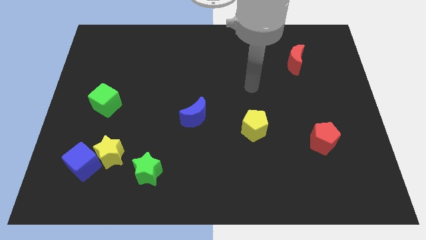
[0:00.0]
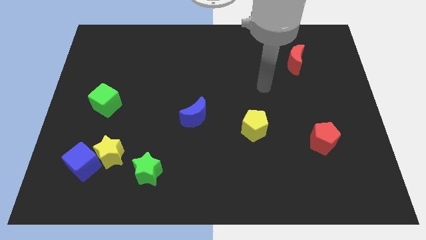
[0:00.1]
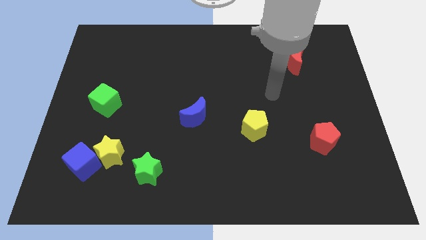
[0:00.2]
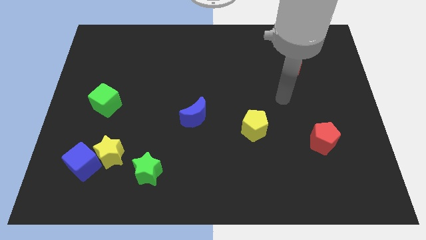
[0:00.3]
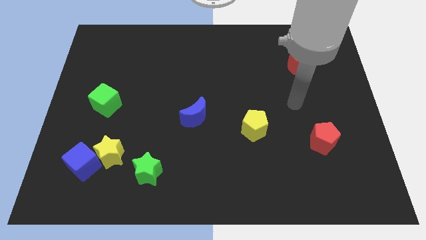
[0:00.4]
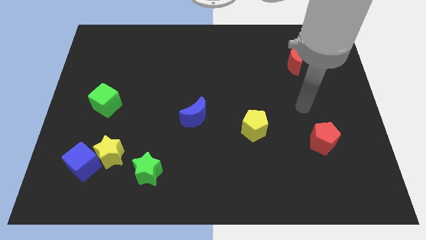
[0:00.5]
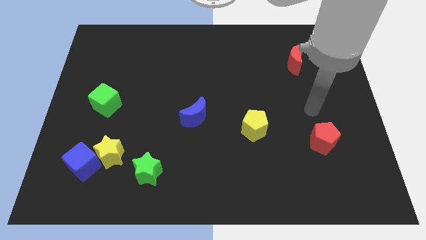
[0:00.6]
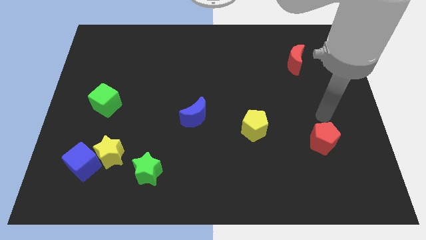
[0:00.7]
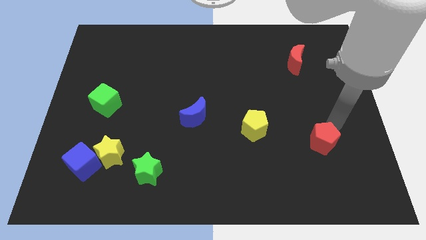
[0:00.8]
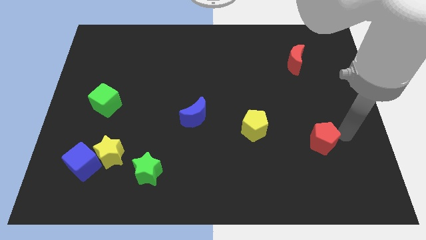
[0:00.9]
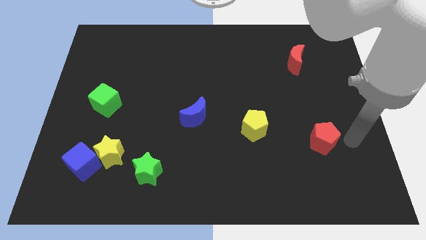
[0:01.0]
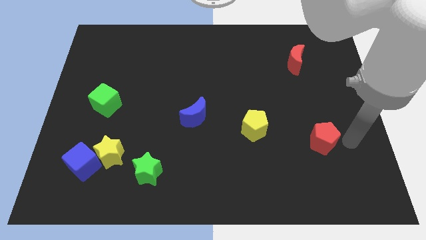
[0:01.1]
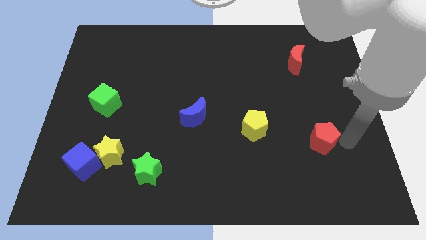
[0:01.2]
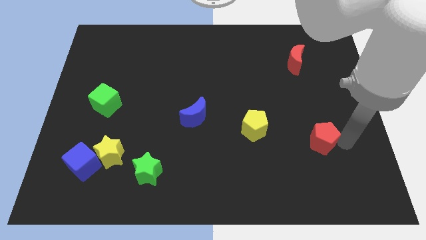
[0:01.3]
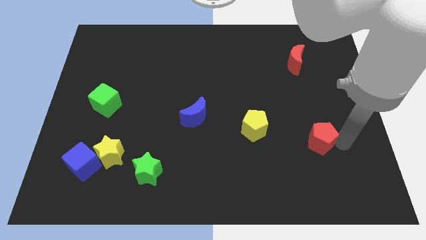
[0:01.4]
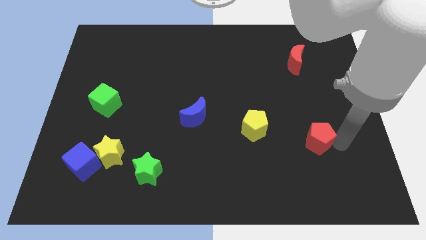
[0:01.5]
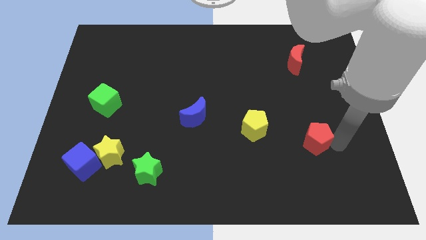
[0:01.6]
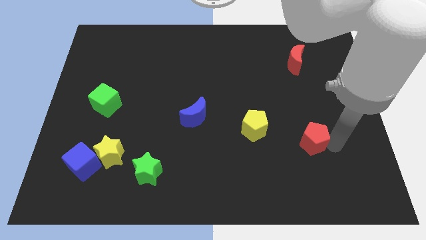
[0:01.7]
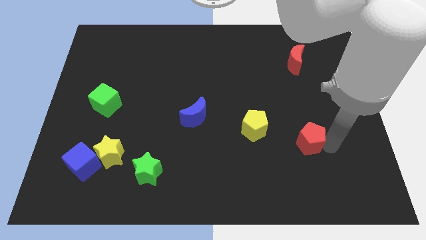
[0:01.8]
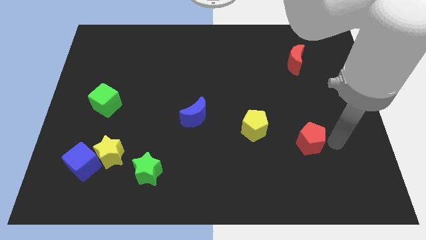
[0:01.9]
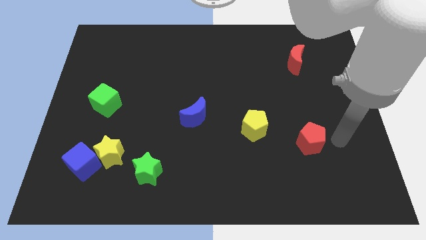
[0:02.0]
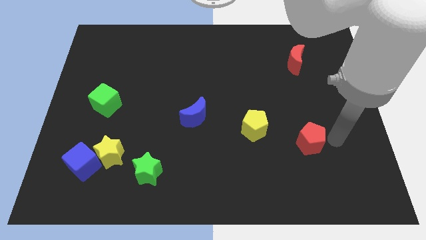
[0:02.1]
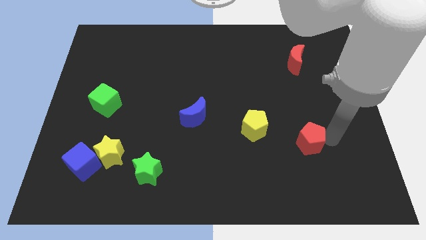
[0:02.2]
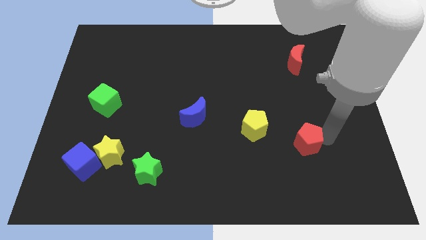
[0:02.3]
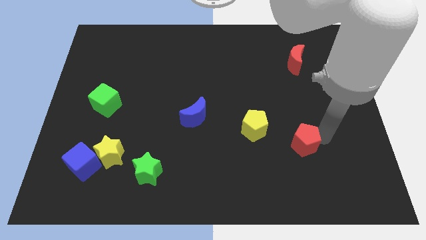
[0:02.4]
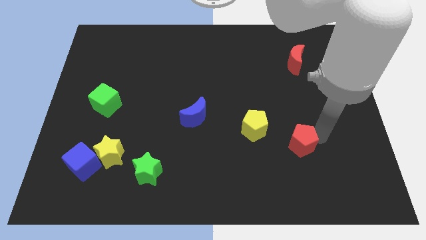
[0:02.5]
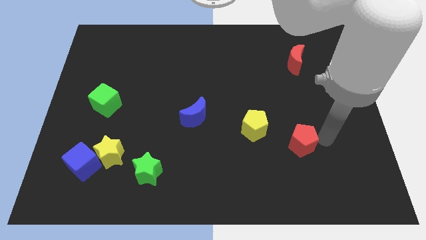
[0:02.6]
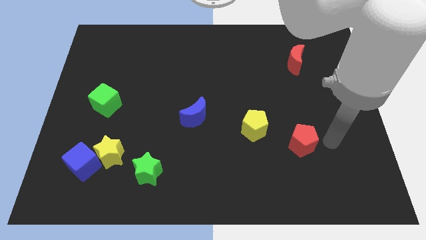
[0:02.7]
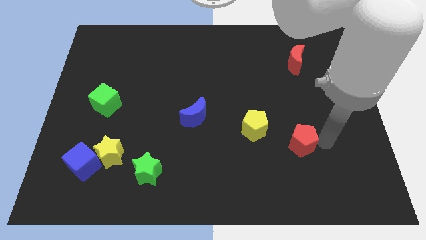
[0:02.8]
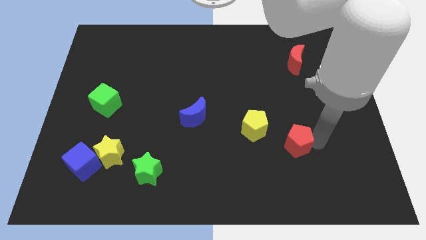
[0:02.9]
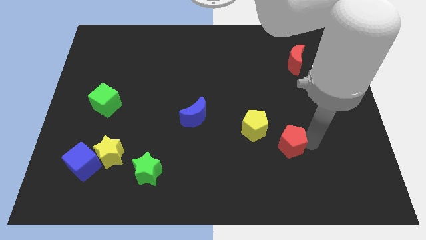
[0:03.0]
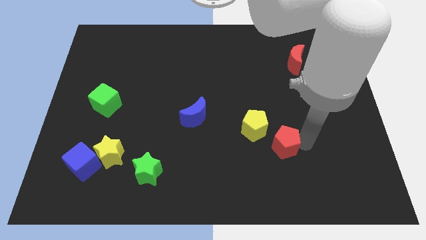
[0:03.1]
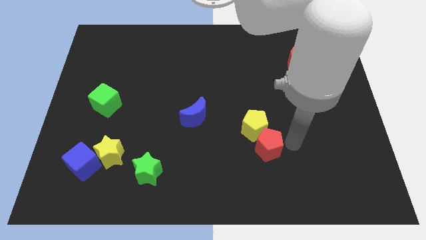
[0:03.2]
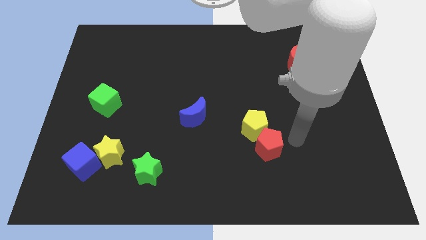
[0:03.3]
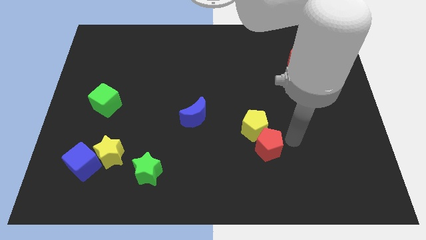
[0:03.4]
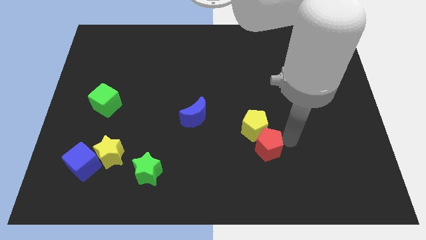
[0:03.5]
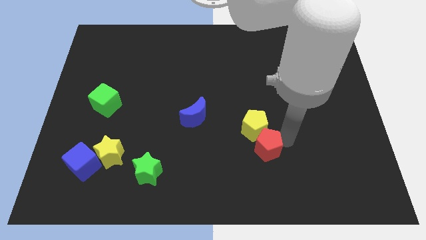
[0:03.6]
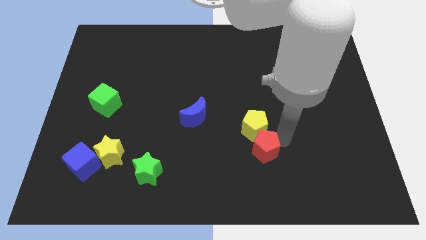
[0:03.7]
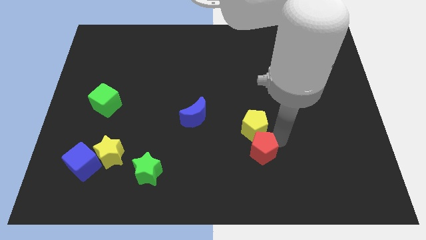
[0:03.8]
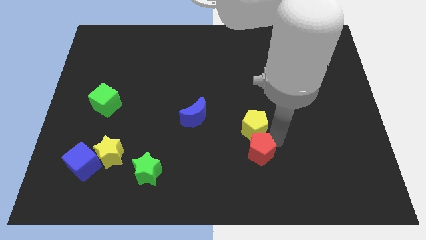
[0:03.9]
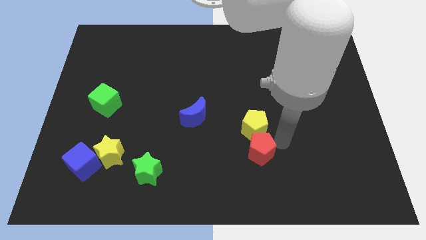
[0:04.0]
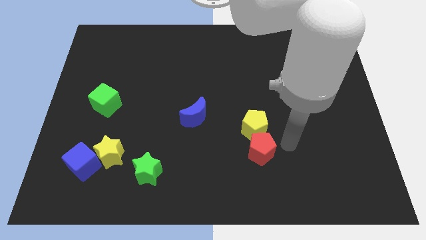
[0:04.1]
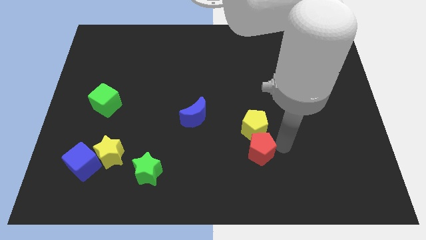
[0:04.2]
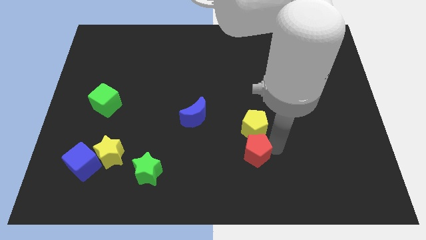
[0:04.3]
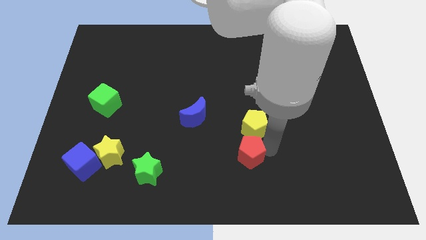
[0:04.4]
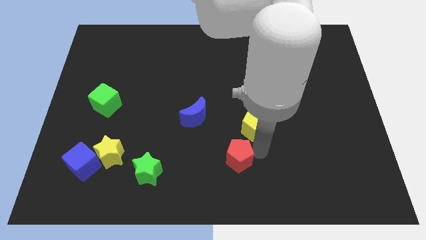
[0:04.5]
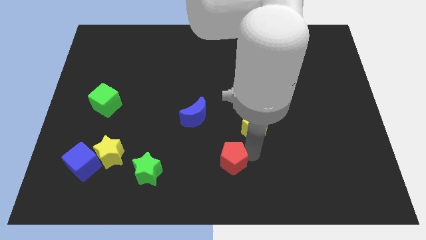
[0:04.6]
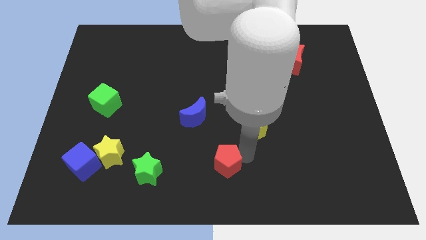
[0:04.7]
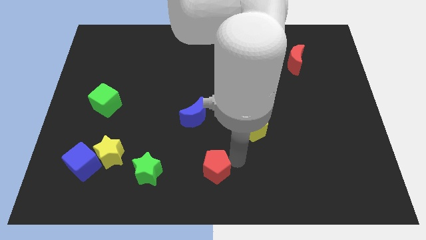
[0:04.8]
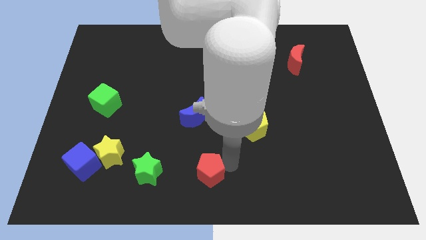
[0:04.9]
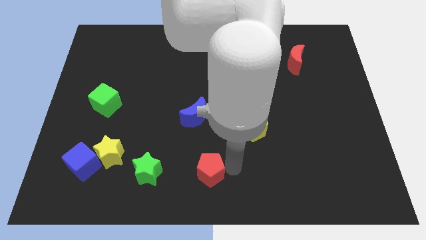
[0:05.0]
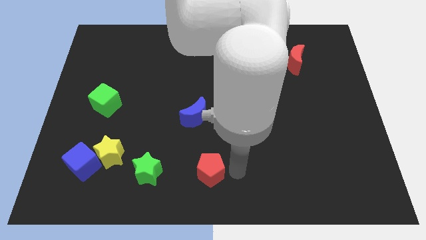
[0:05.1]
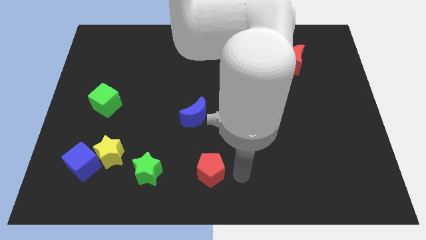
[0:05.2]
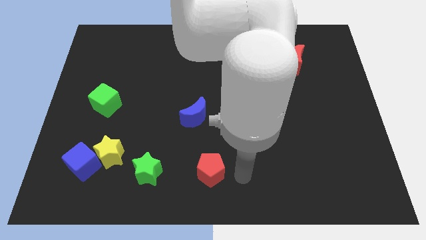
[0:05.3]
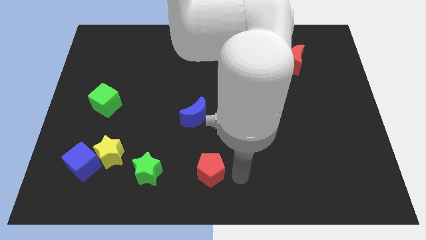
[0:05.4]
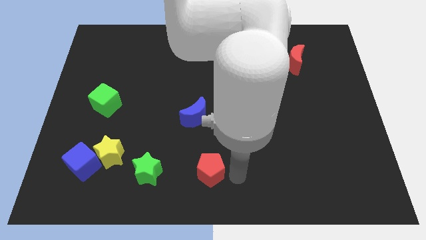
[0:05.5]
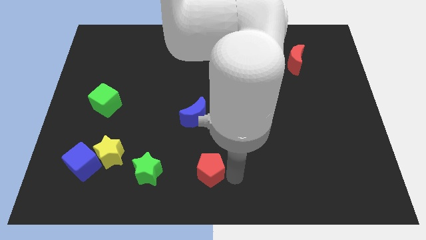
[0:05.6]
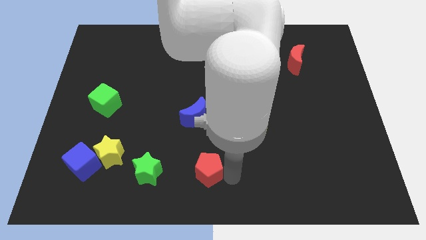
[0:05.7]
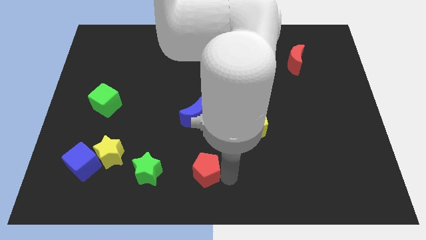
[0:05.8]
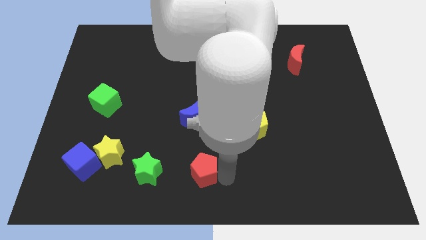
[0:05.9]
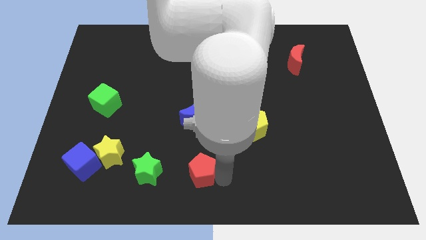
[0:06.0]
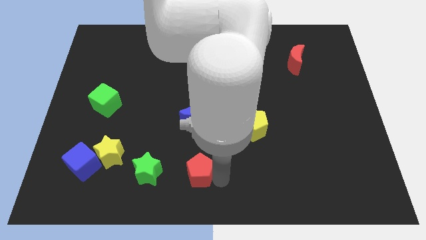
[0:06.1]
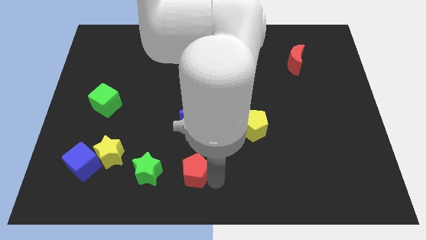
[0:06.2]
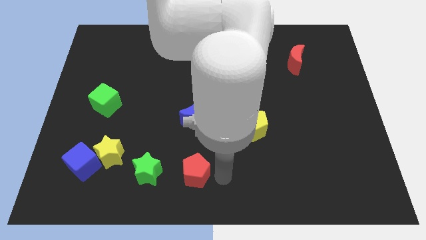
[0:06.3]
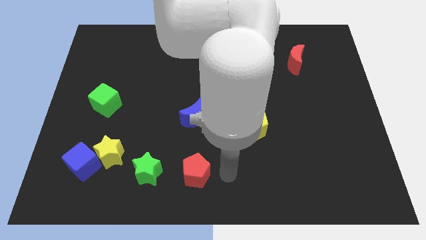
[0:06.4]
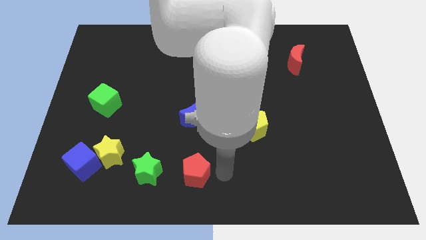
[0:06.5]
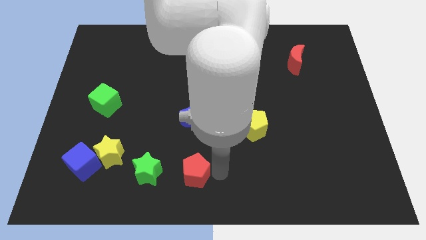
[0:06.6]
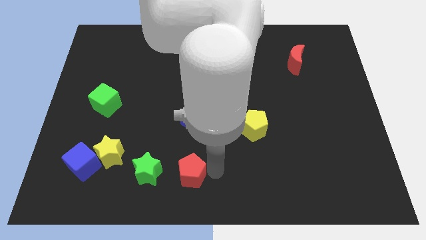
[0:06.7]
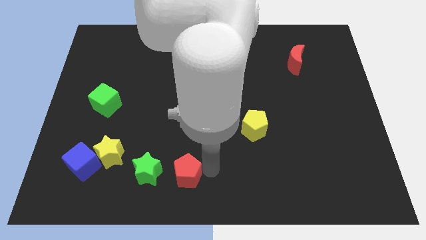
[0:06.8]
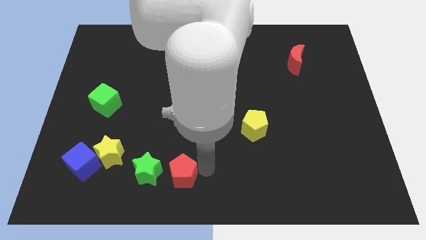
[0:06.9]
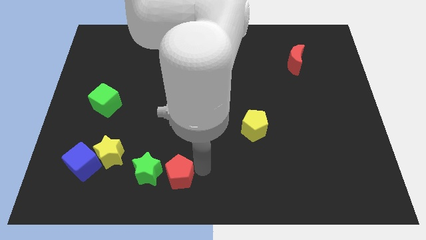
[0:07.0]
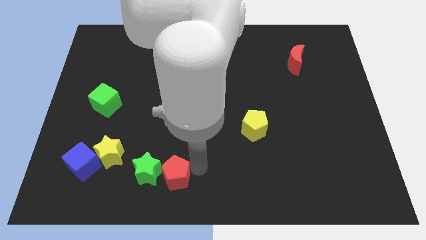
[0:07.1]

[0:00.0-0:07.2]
put the red pentagon to the green star

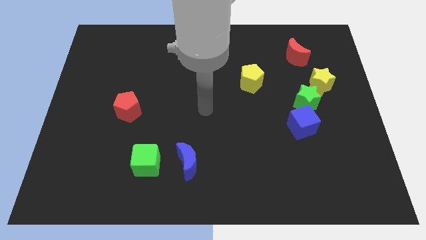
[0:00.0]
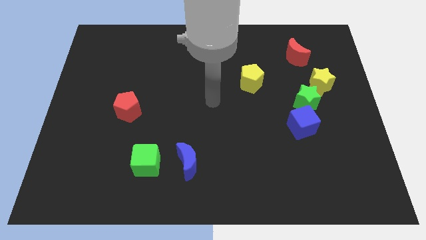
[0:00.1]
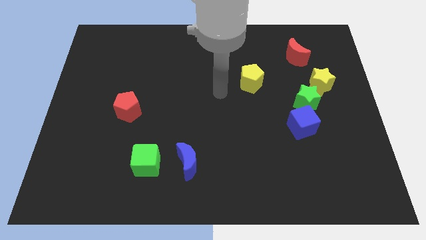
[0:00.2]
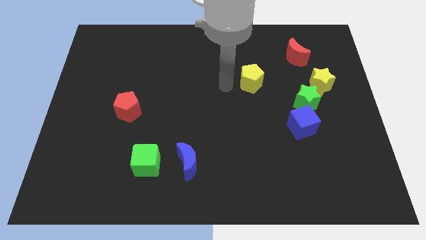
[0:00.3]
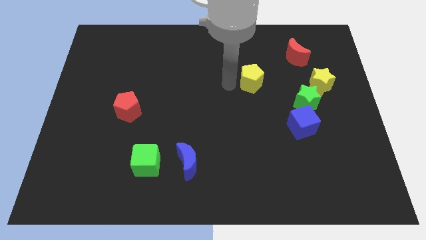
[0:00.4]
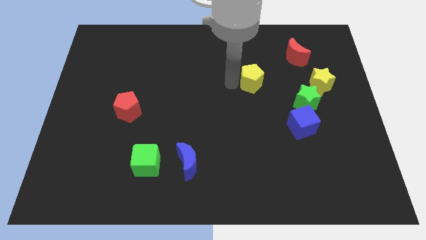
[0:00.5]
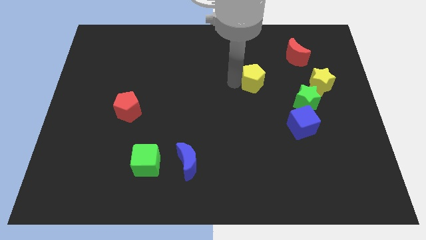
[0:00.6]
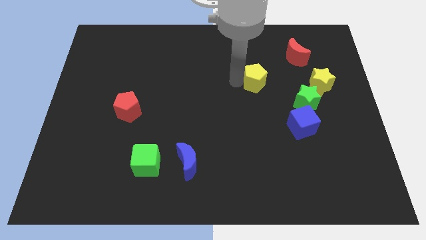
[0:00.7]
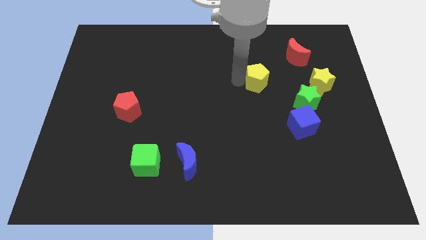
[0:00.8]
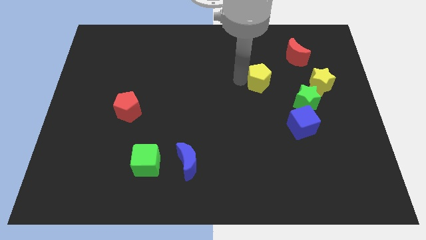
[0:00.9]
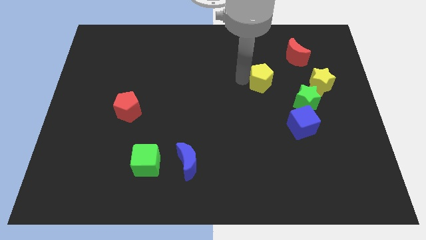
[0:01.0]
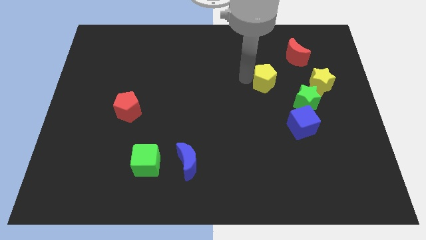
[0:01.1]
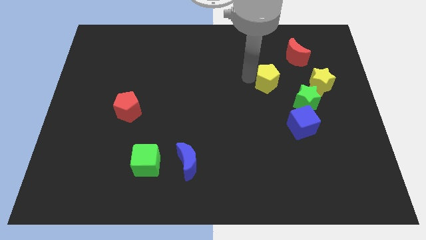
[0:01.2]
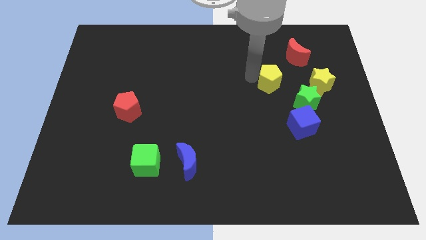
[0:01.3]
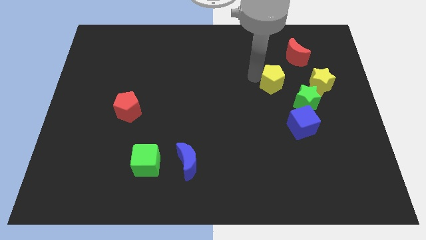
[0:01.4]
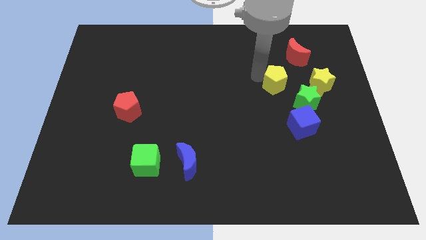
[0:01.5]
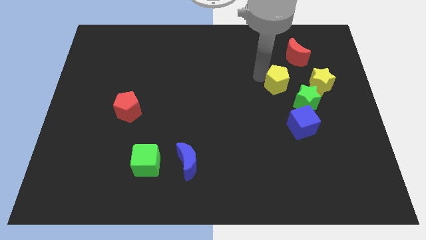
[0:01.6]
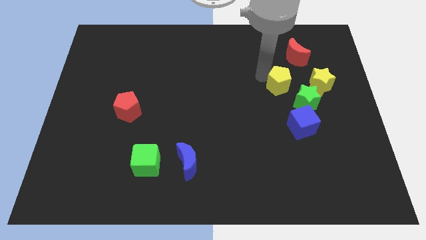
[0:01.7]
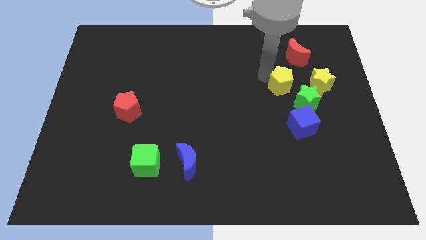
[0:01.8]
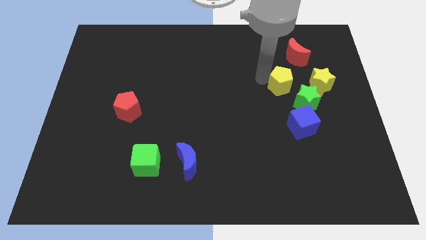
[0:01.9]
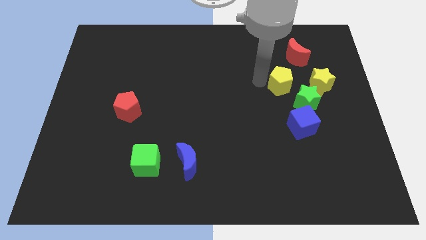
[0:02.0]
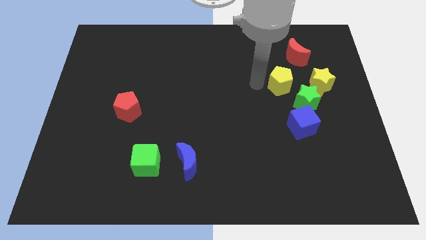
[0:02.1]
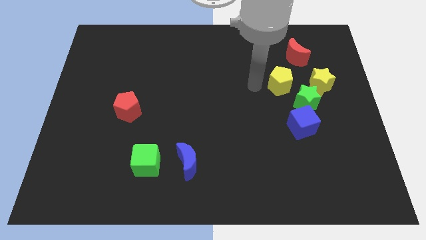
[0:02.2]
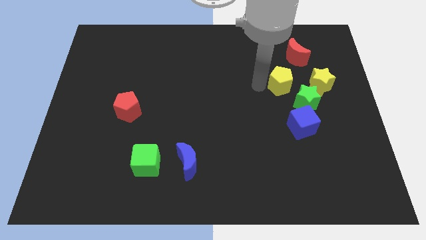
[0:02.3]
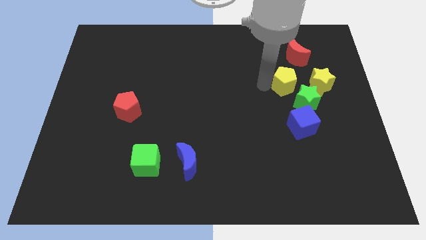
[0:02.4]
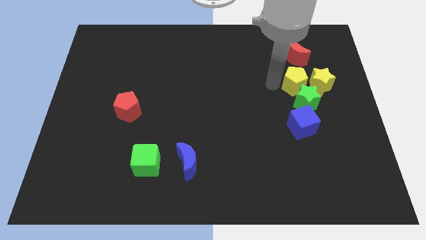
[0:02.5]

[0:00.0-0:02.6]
move the yellow pentagon towards the yellow star
